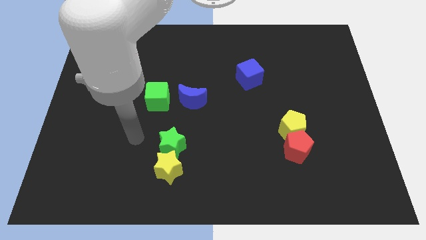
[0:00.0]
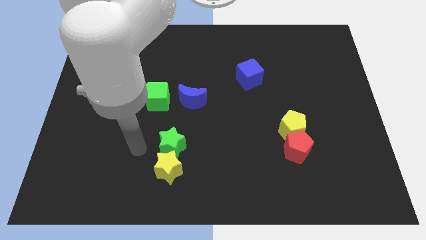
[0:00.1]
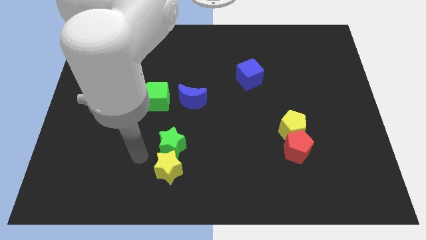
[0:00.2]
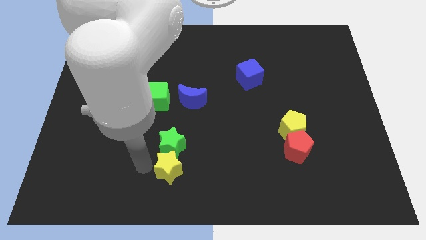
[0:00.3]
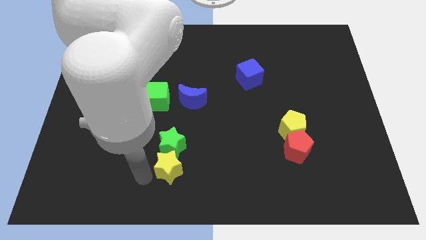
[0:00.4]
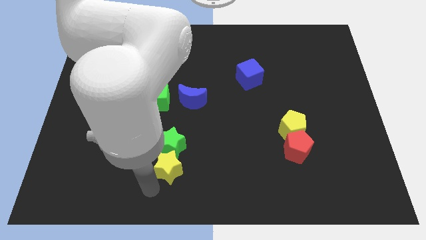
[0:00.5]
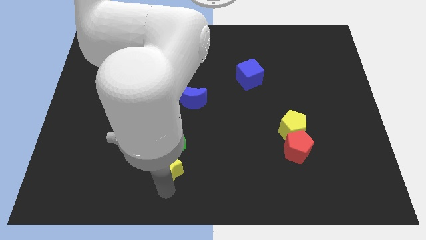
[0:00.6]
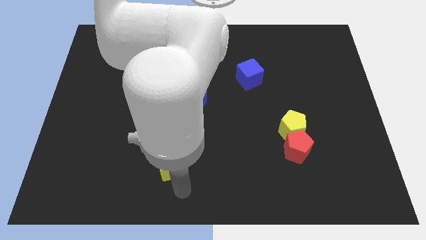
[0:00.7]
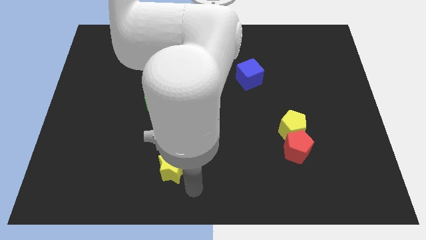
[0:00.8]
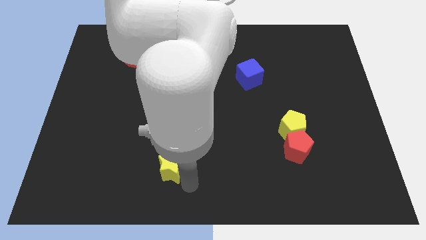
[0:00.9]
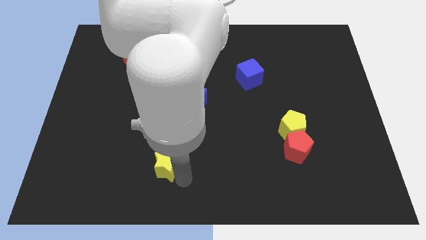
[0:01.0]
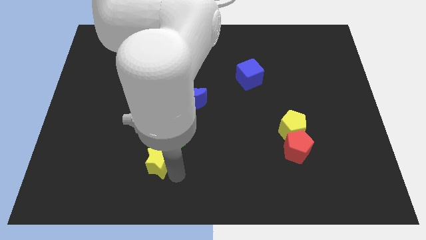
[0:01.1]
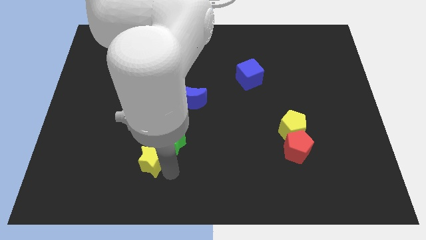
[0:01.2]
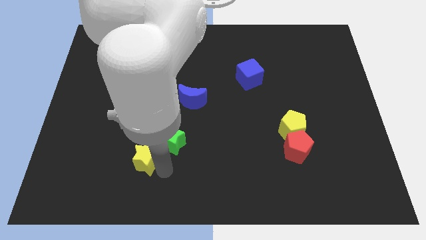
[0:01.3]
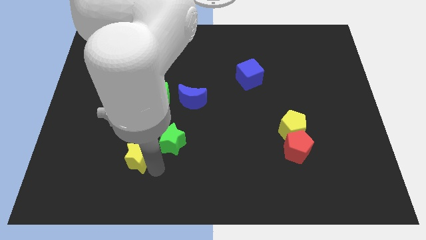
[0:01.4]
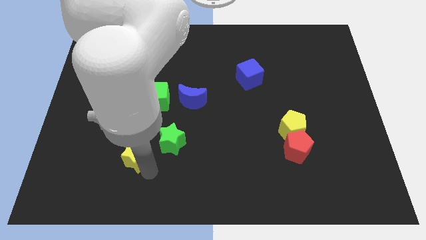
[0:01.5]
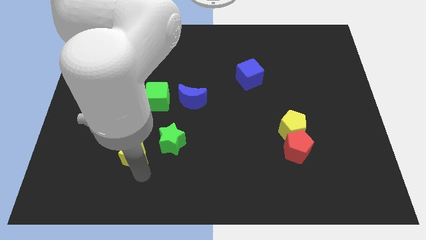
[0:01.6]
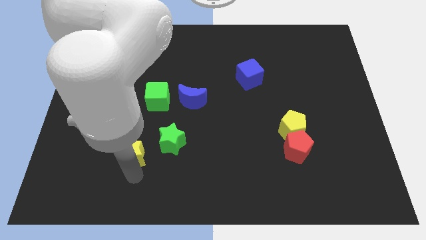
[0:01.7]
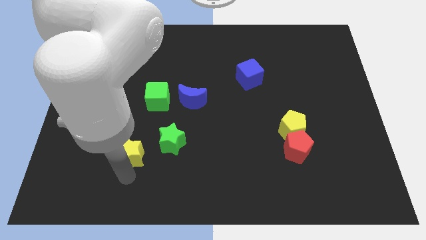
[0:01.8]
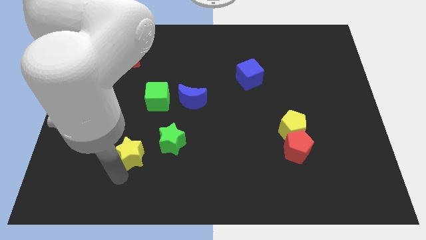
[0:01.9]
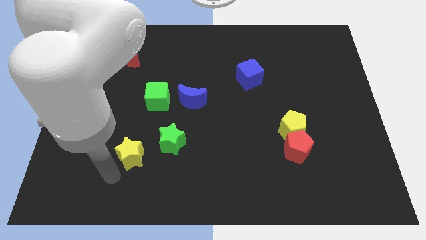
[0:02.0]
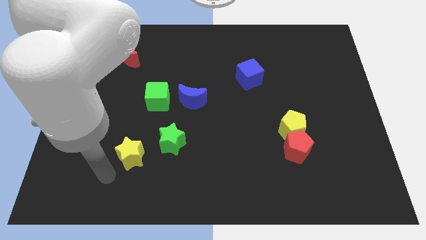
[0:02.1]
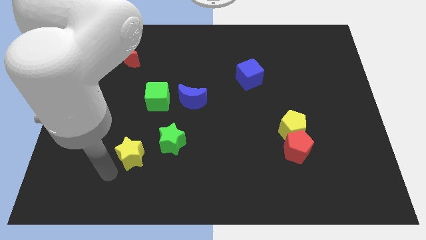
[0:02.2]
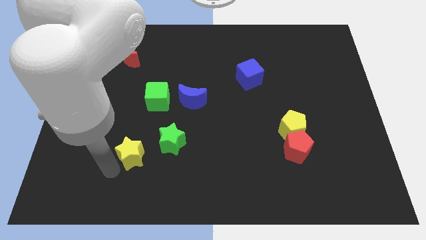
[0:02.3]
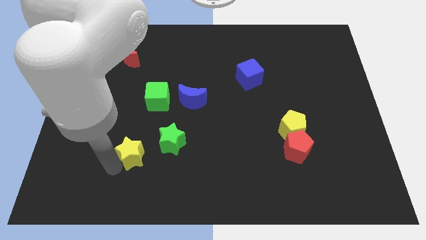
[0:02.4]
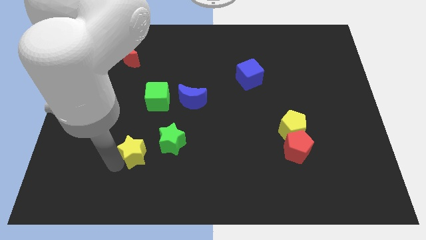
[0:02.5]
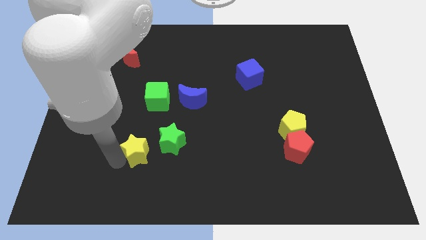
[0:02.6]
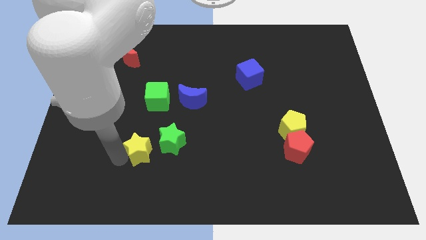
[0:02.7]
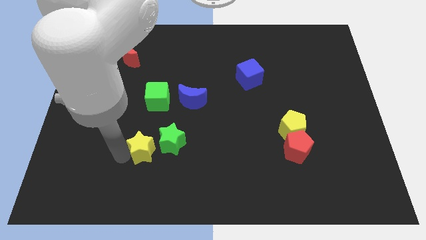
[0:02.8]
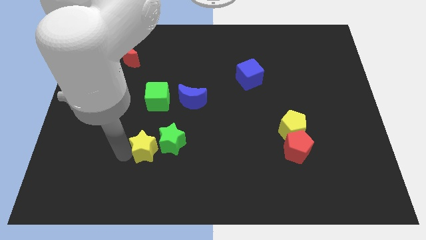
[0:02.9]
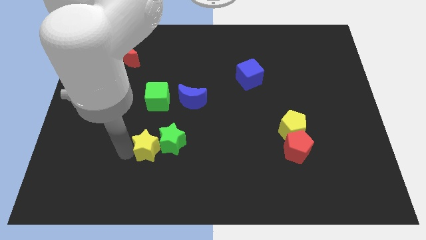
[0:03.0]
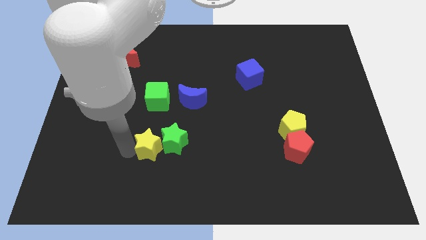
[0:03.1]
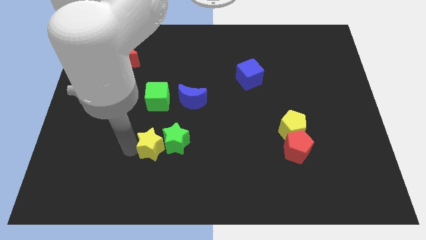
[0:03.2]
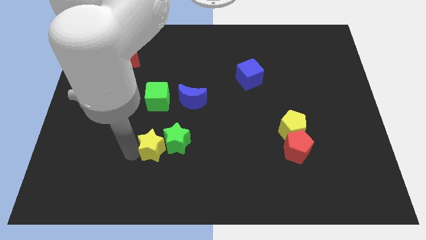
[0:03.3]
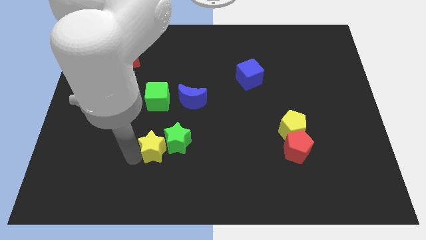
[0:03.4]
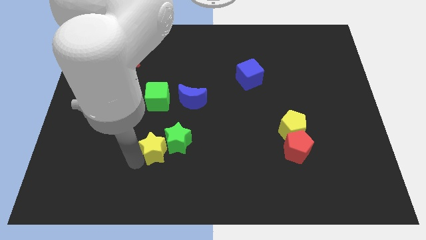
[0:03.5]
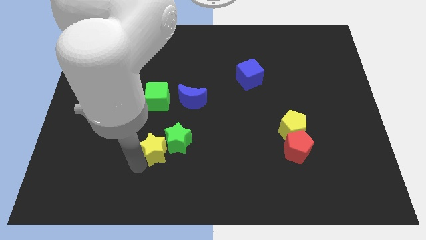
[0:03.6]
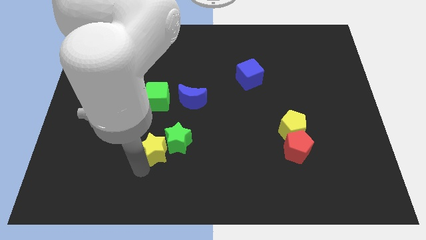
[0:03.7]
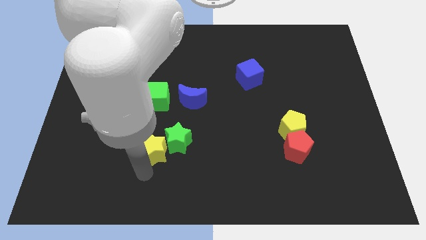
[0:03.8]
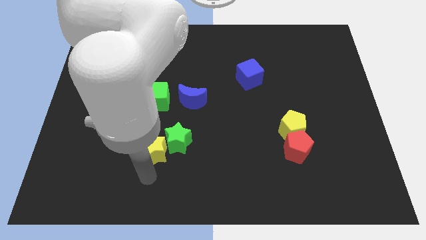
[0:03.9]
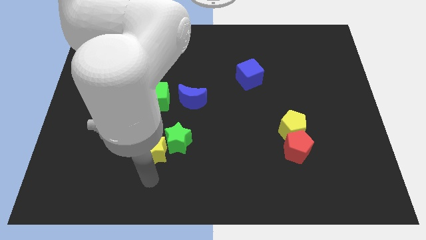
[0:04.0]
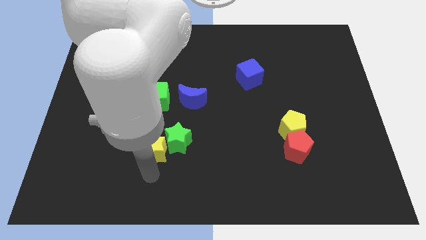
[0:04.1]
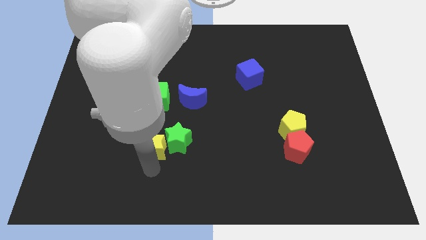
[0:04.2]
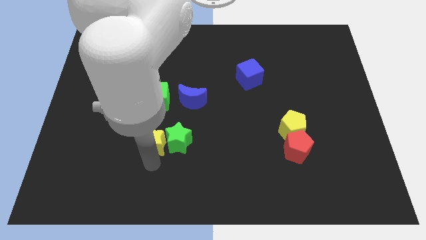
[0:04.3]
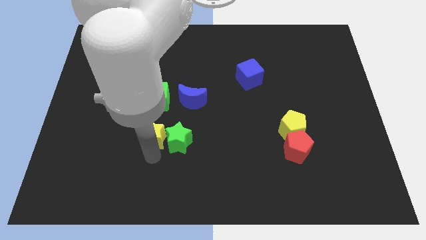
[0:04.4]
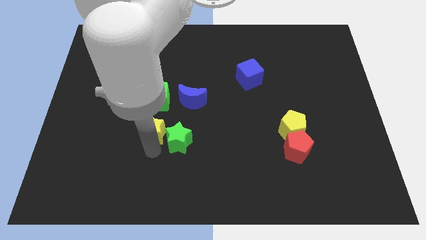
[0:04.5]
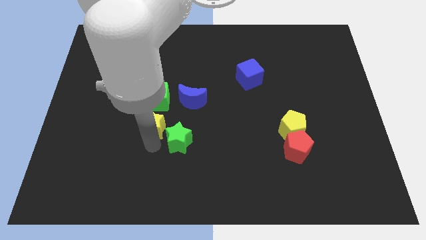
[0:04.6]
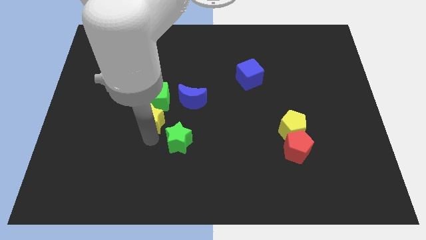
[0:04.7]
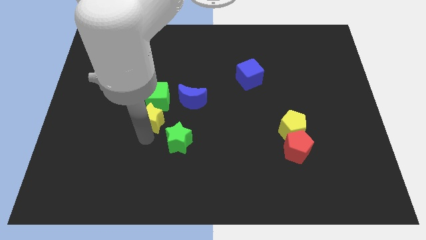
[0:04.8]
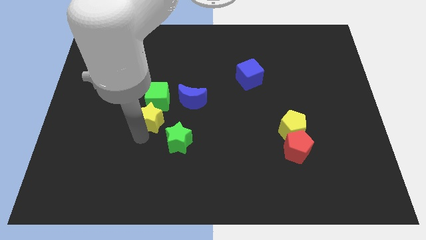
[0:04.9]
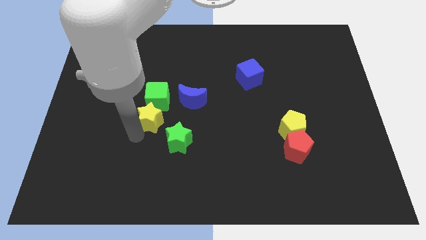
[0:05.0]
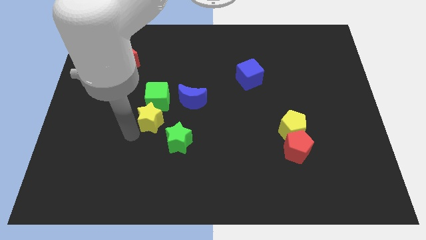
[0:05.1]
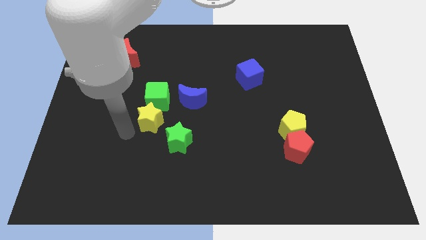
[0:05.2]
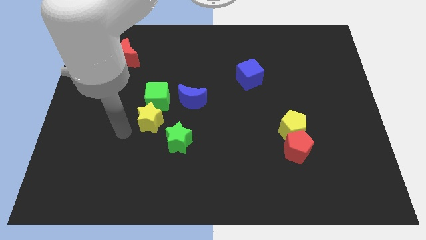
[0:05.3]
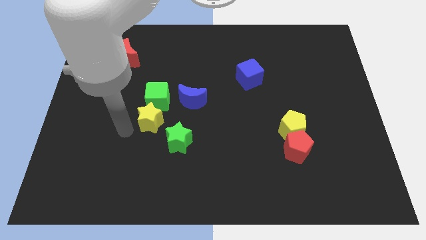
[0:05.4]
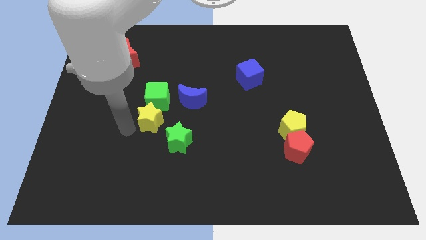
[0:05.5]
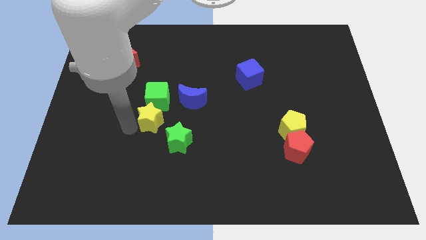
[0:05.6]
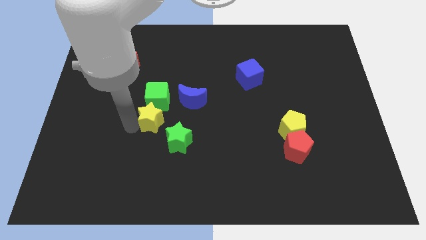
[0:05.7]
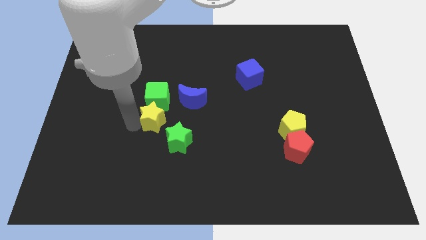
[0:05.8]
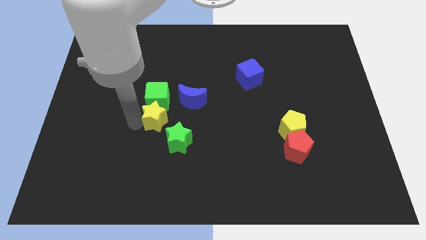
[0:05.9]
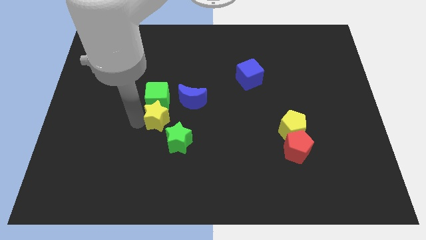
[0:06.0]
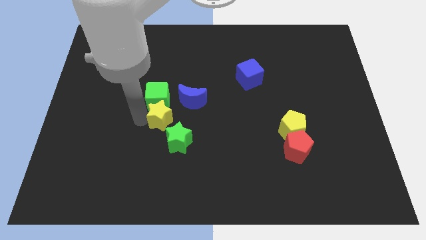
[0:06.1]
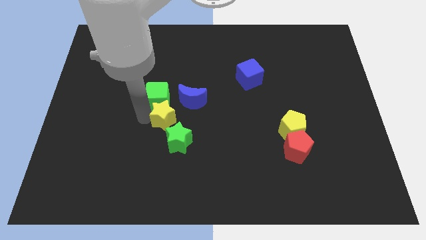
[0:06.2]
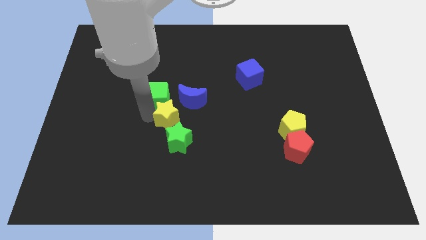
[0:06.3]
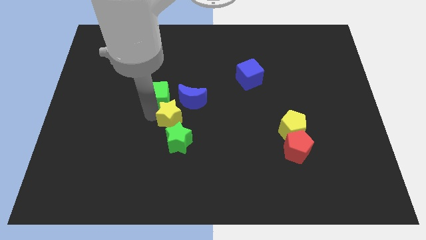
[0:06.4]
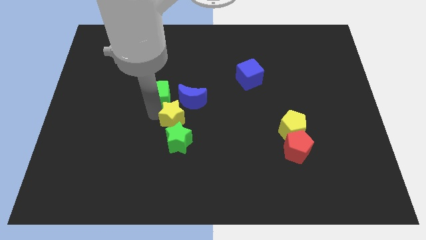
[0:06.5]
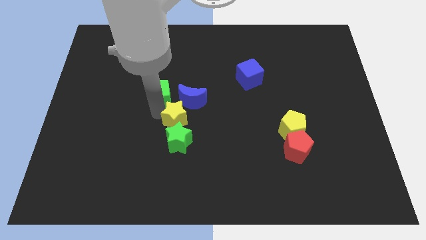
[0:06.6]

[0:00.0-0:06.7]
put the yellow star close to the blue moon
